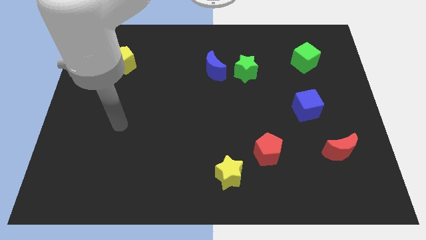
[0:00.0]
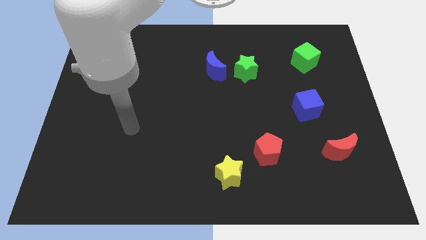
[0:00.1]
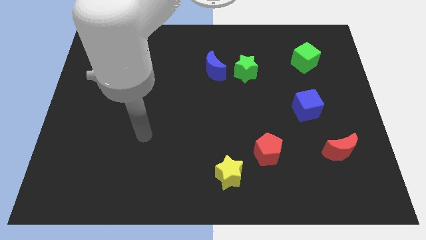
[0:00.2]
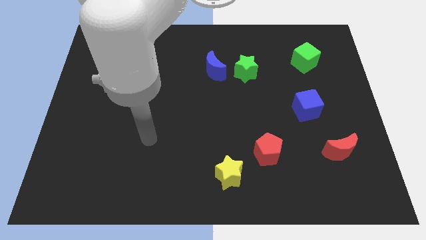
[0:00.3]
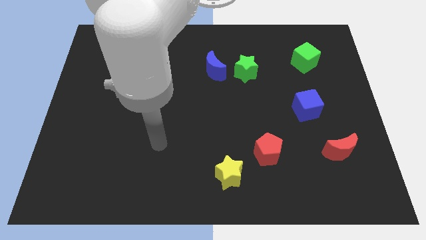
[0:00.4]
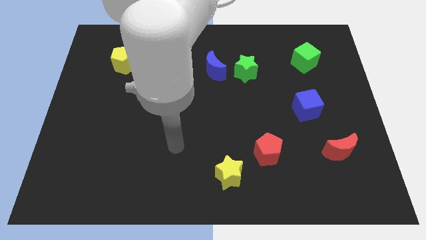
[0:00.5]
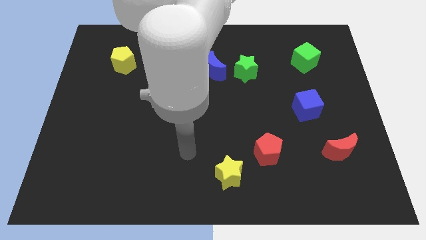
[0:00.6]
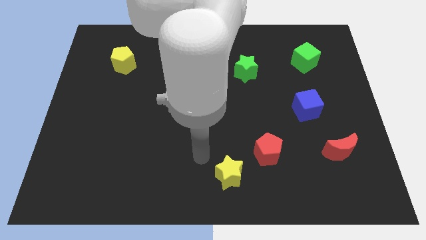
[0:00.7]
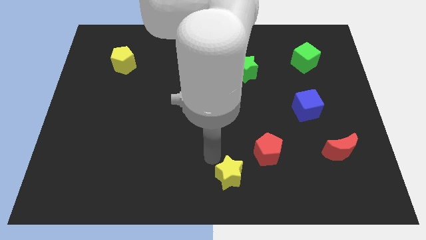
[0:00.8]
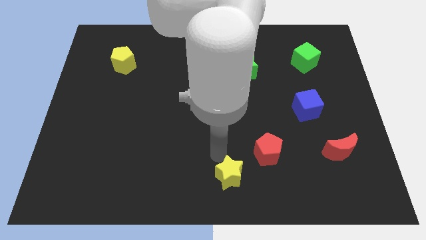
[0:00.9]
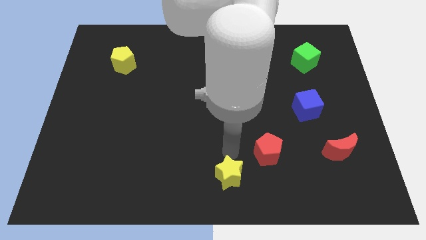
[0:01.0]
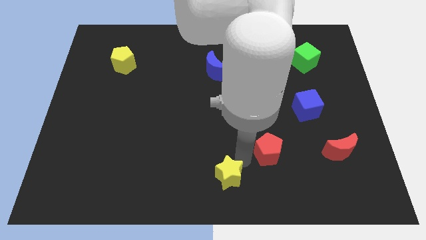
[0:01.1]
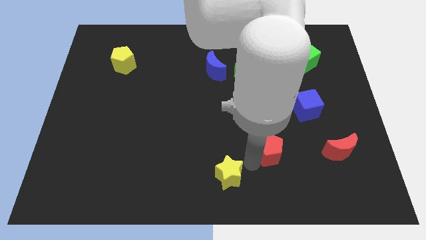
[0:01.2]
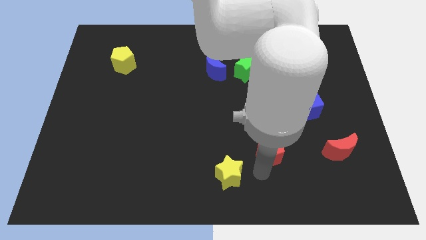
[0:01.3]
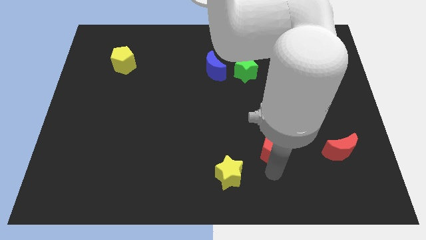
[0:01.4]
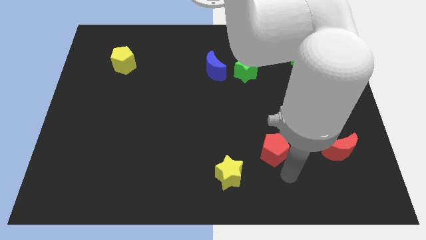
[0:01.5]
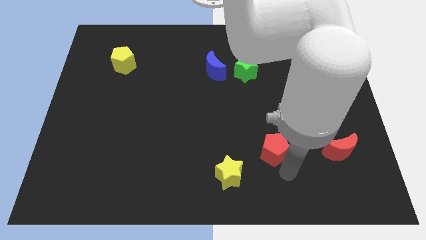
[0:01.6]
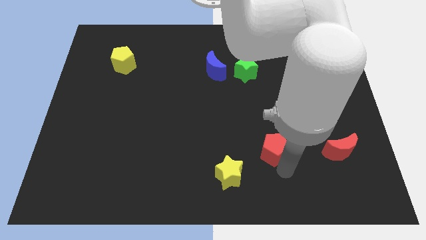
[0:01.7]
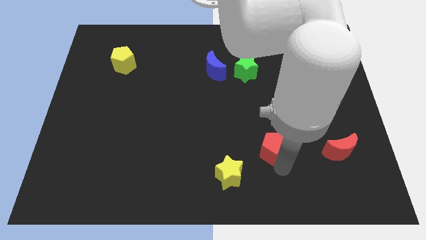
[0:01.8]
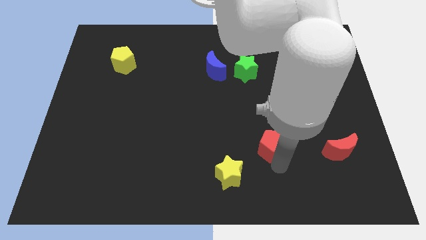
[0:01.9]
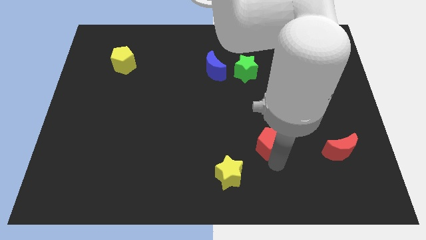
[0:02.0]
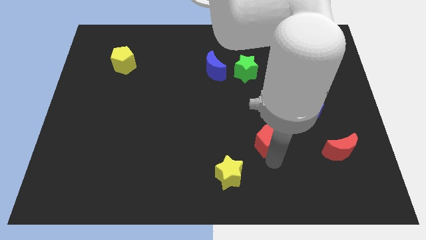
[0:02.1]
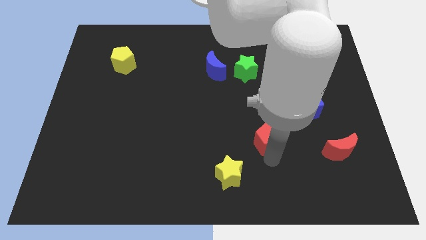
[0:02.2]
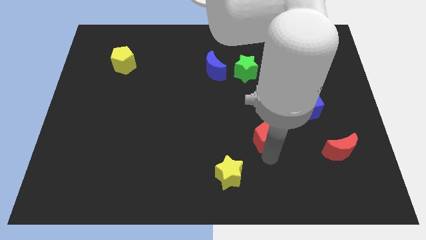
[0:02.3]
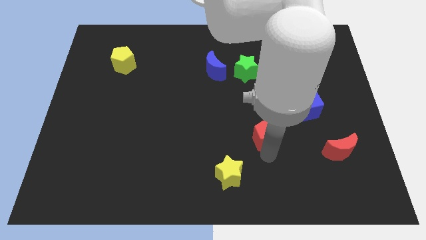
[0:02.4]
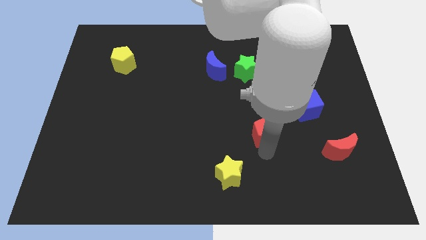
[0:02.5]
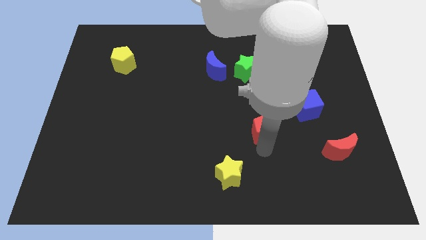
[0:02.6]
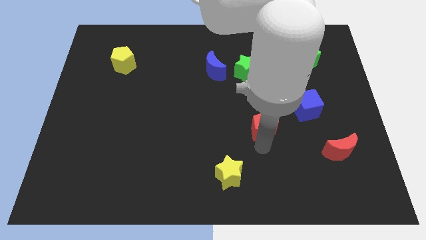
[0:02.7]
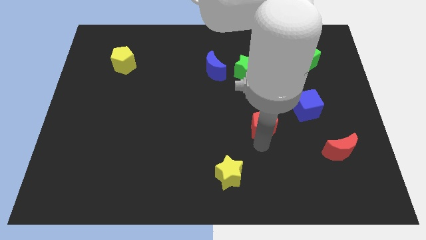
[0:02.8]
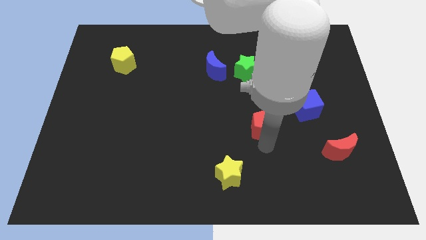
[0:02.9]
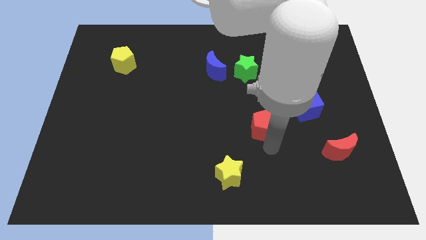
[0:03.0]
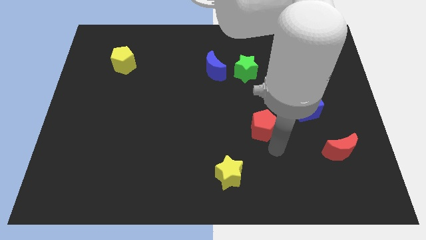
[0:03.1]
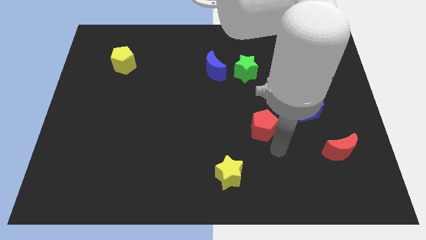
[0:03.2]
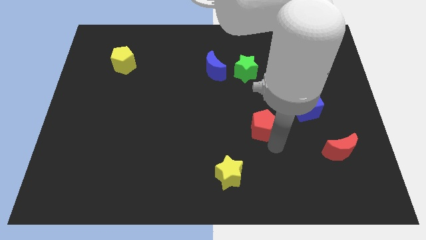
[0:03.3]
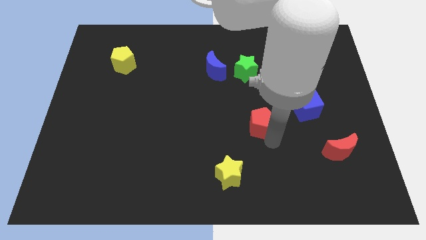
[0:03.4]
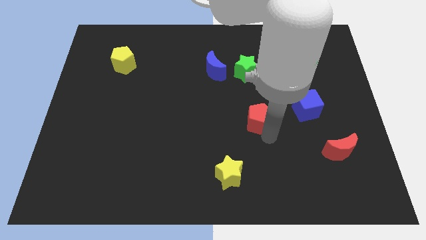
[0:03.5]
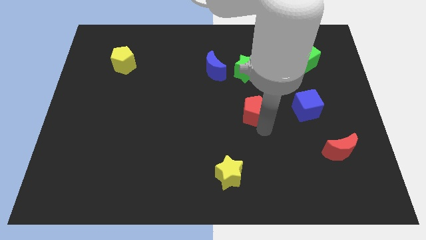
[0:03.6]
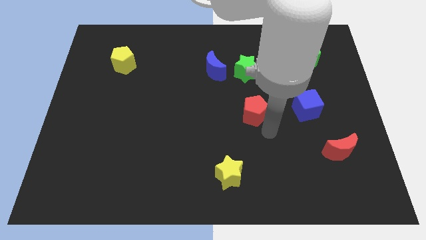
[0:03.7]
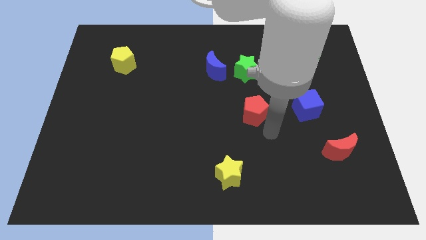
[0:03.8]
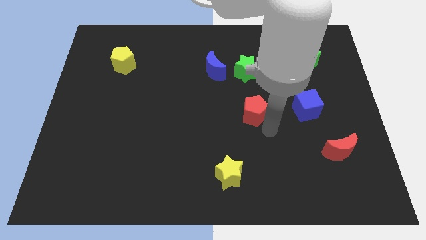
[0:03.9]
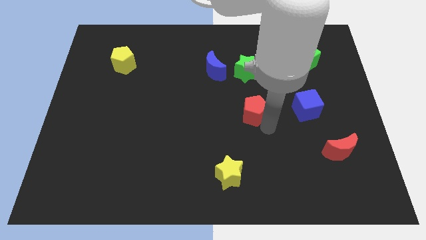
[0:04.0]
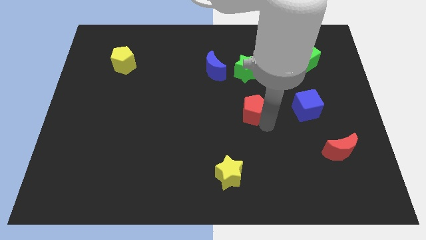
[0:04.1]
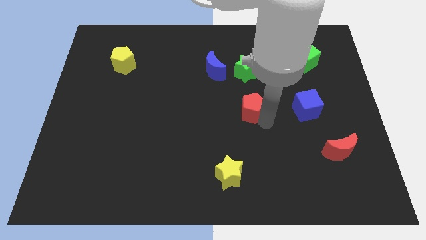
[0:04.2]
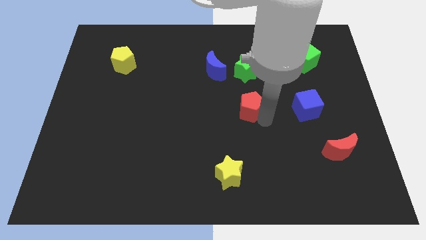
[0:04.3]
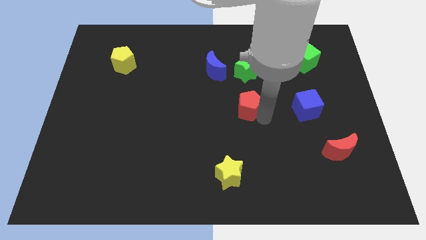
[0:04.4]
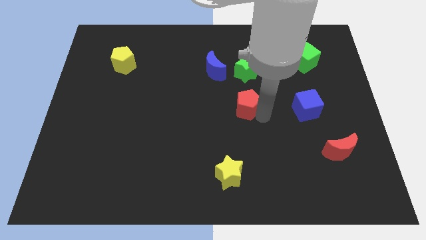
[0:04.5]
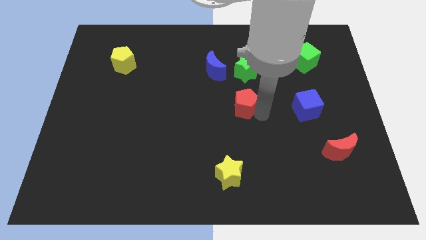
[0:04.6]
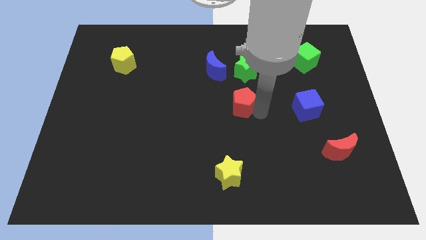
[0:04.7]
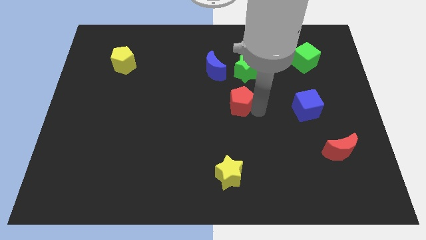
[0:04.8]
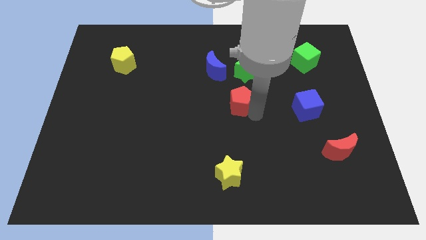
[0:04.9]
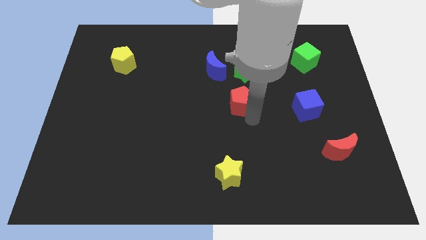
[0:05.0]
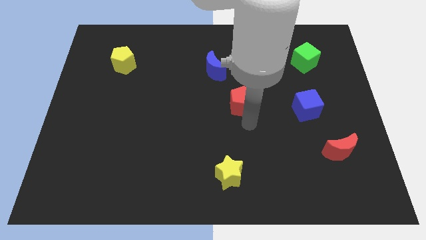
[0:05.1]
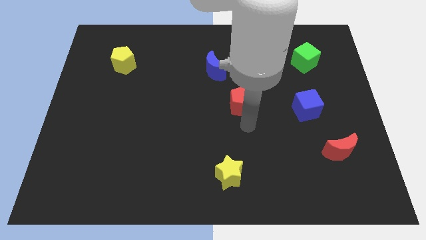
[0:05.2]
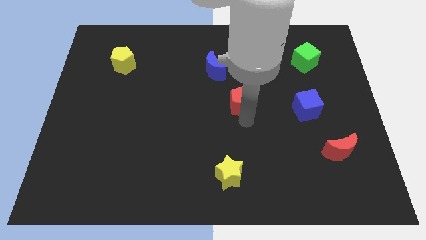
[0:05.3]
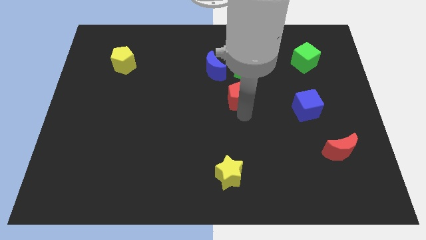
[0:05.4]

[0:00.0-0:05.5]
move the red pentagon diagonally down and to the right of the blue moon

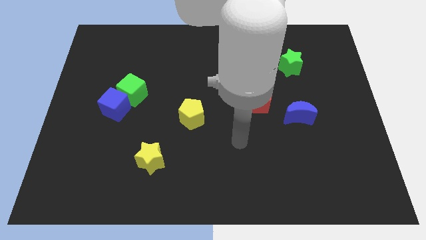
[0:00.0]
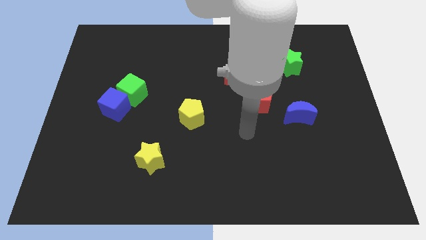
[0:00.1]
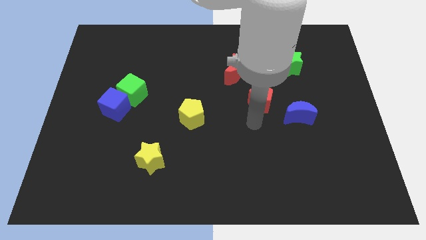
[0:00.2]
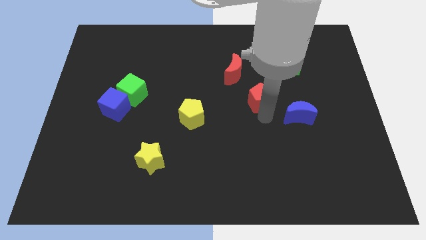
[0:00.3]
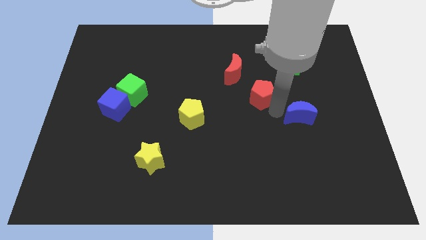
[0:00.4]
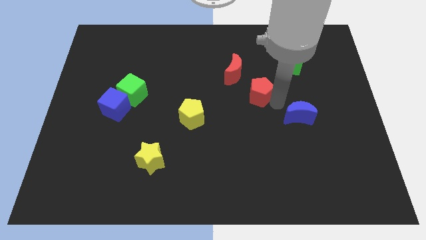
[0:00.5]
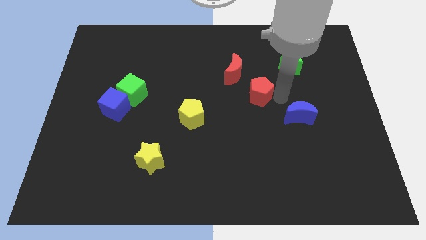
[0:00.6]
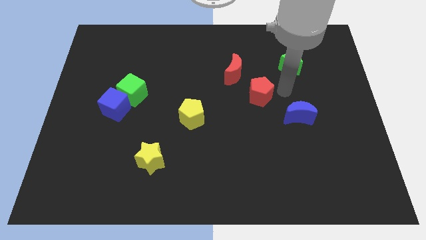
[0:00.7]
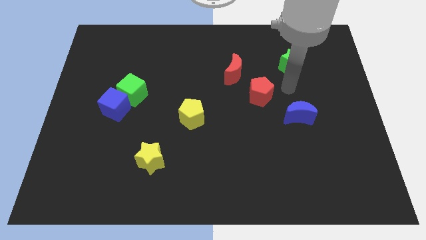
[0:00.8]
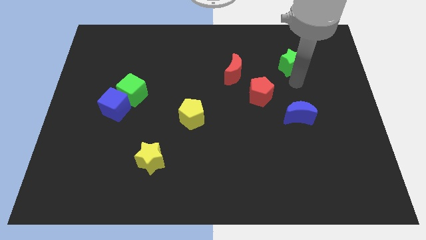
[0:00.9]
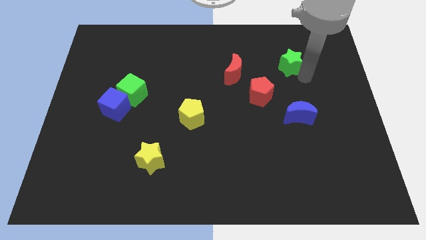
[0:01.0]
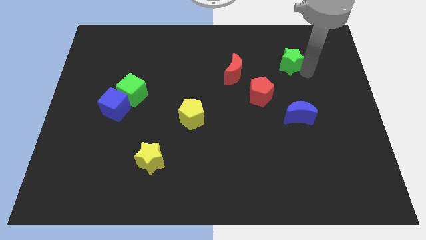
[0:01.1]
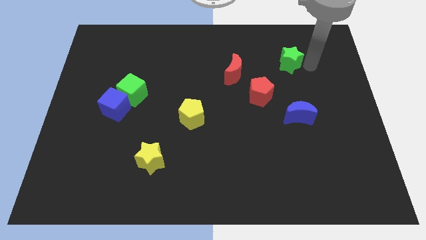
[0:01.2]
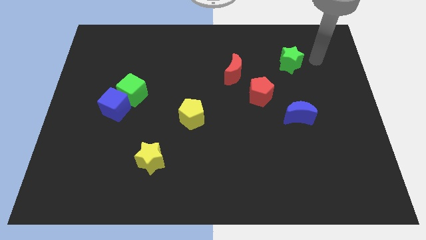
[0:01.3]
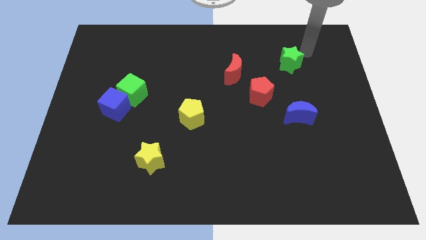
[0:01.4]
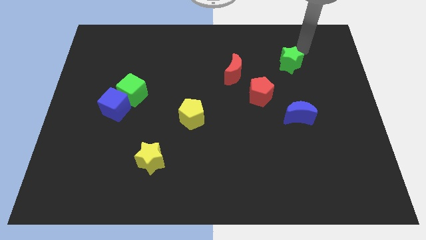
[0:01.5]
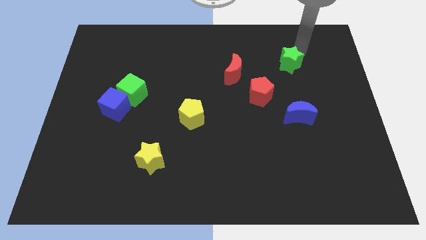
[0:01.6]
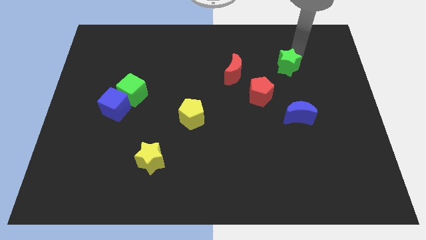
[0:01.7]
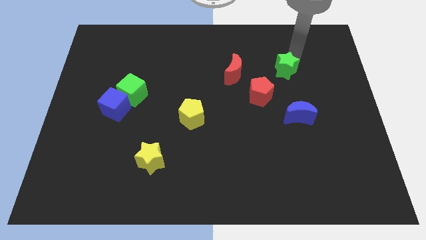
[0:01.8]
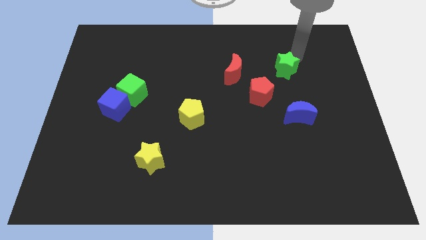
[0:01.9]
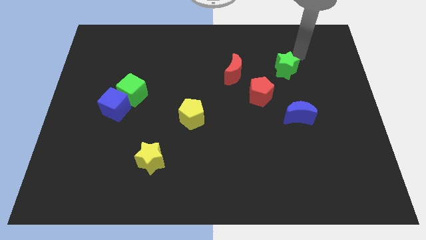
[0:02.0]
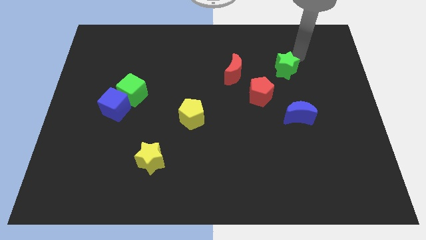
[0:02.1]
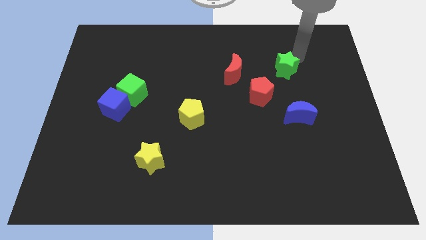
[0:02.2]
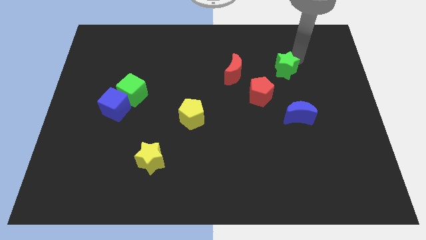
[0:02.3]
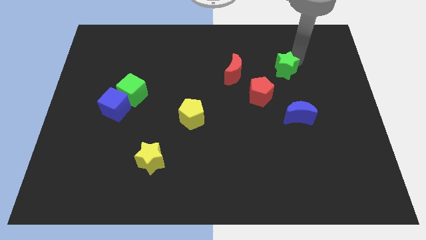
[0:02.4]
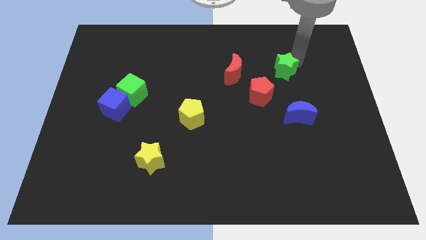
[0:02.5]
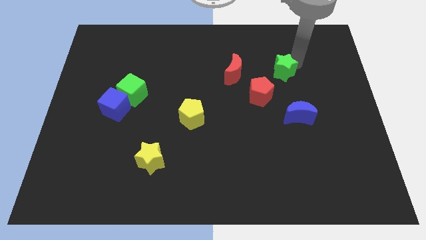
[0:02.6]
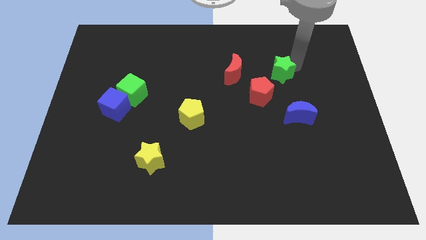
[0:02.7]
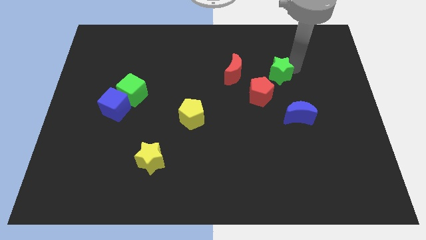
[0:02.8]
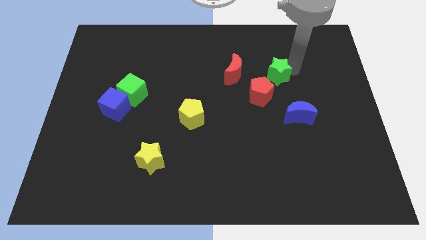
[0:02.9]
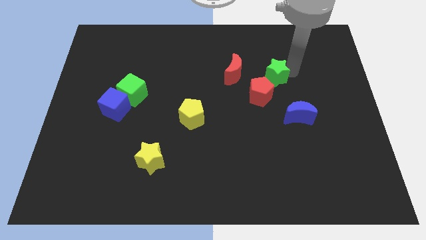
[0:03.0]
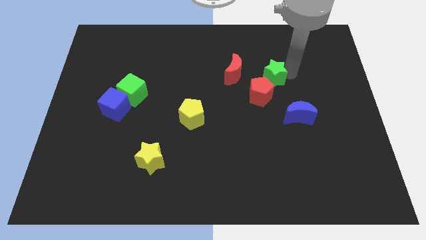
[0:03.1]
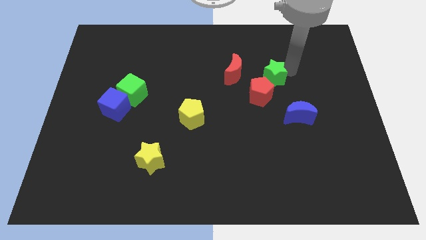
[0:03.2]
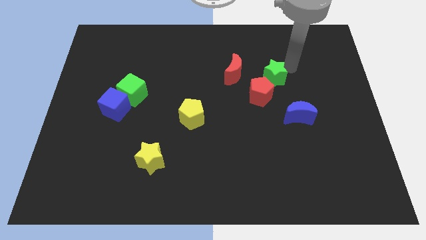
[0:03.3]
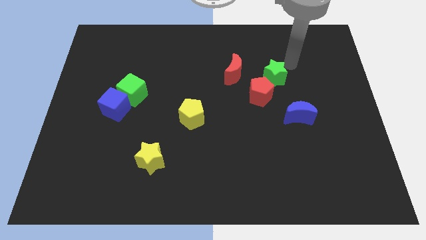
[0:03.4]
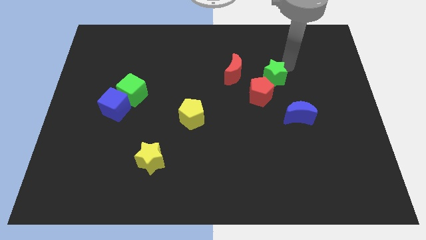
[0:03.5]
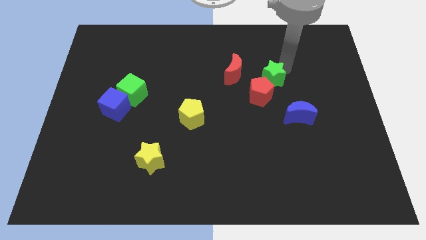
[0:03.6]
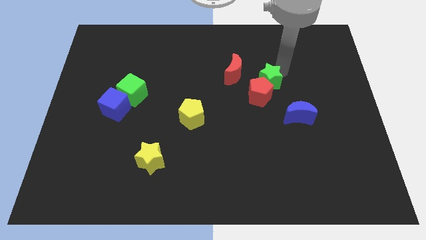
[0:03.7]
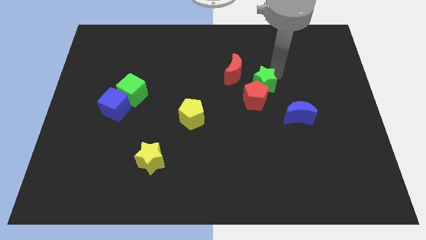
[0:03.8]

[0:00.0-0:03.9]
slide the green star to the top left side of the blue moon
